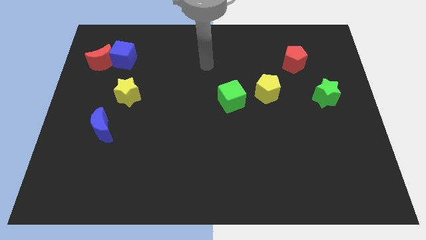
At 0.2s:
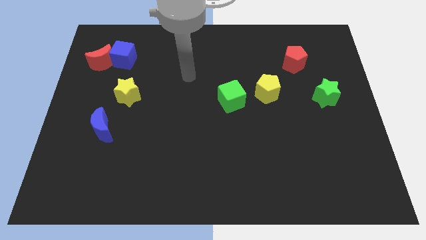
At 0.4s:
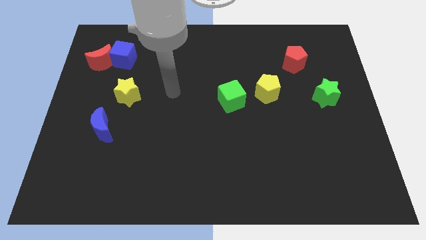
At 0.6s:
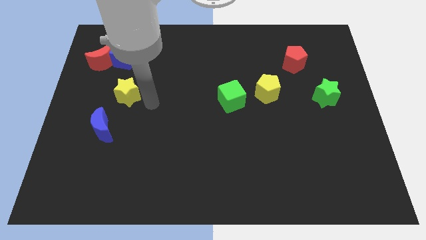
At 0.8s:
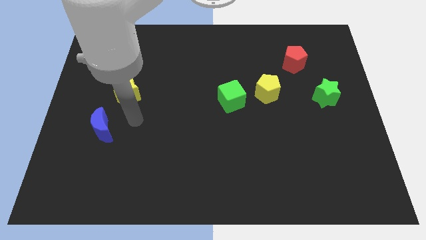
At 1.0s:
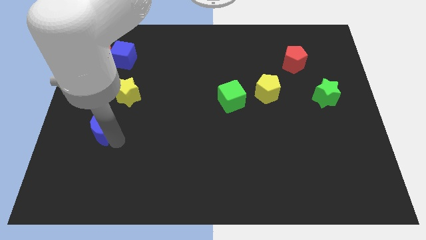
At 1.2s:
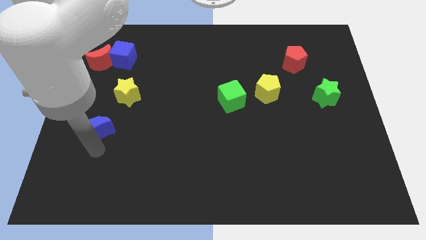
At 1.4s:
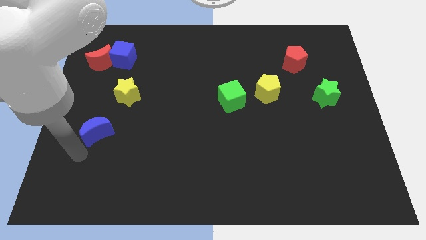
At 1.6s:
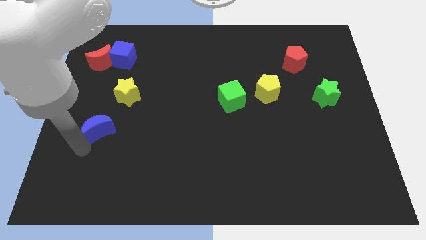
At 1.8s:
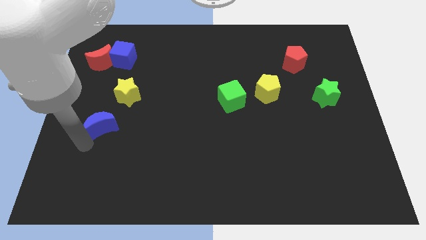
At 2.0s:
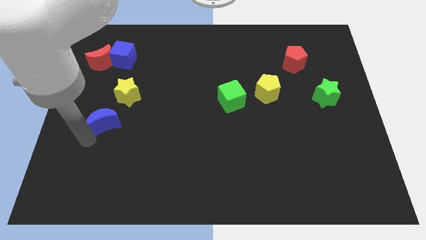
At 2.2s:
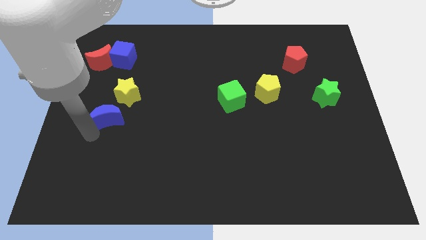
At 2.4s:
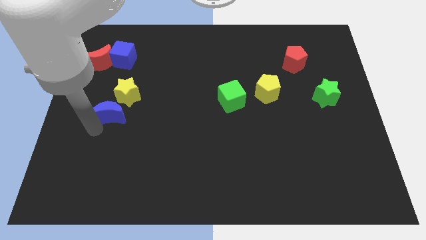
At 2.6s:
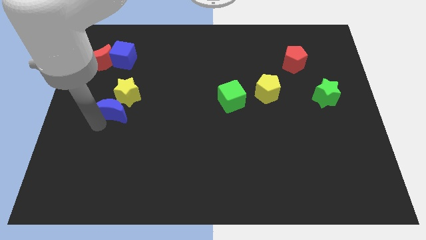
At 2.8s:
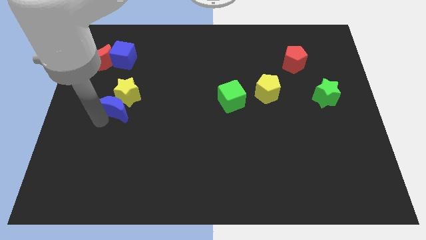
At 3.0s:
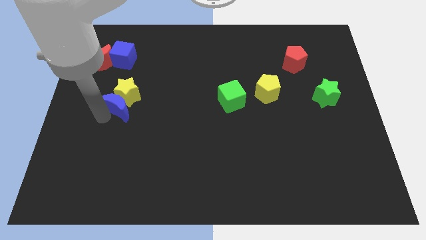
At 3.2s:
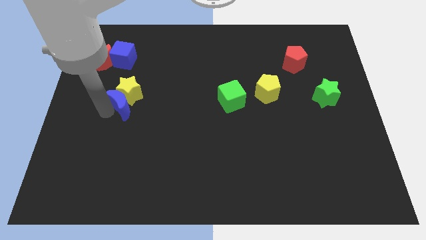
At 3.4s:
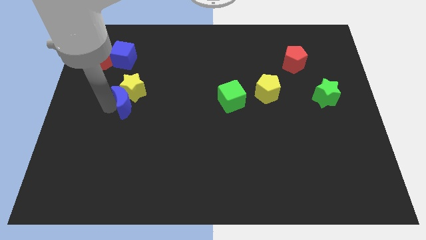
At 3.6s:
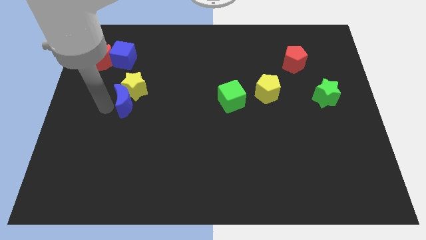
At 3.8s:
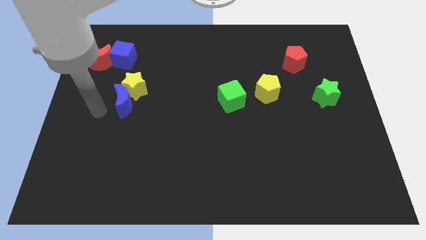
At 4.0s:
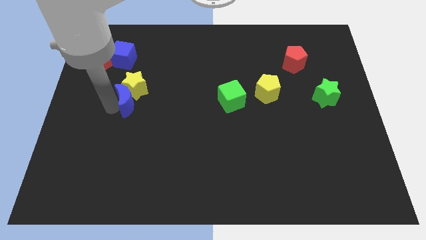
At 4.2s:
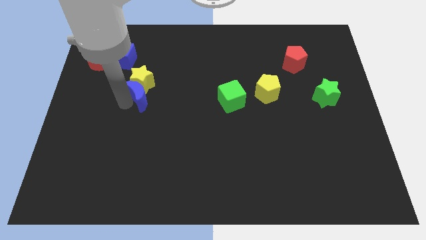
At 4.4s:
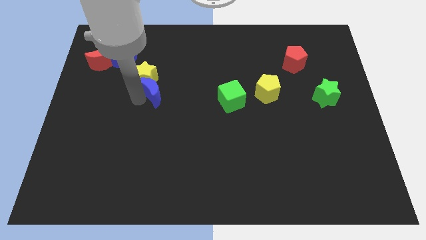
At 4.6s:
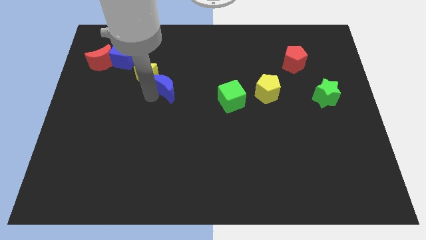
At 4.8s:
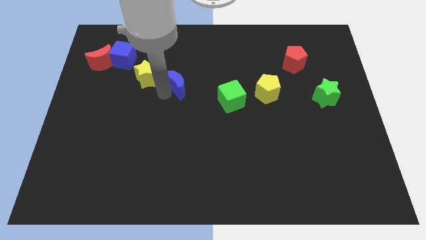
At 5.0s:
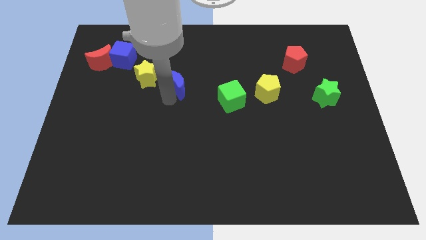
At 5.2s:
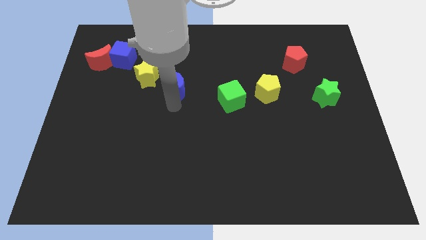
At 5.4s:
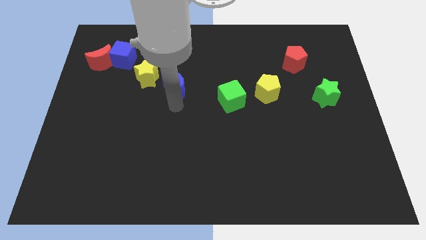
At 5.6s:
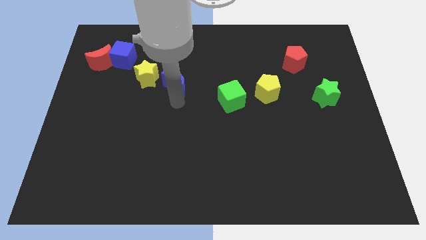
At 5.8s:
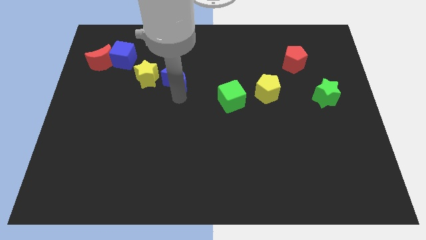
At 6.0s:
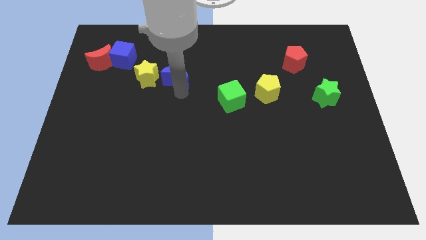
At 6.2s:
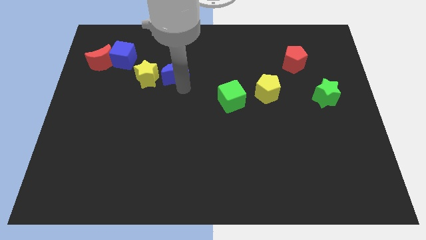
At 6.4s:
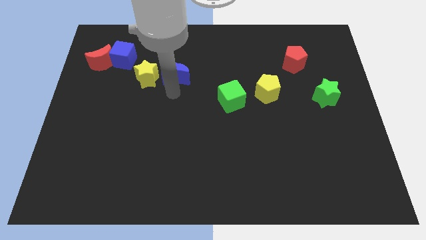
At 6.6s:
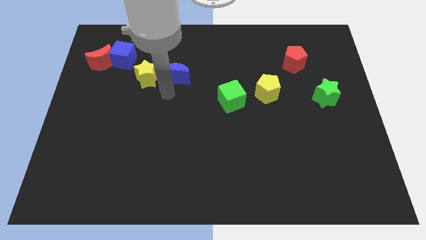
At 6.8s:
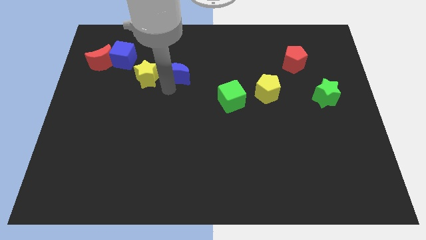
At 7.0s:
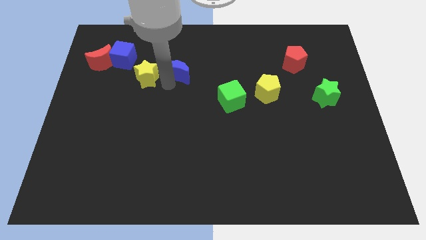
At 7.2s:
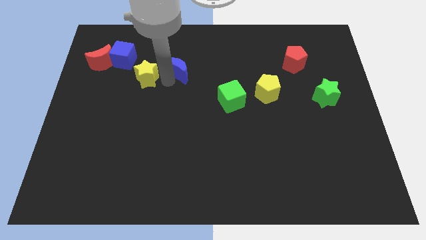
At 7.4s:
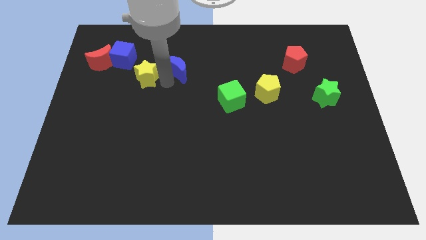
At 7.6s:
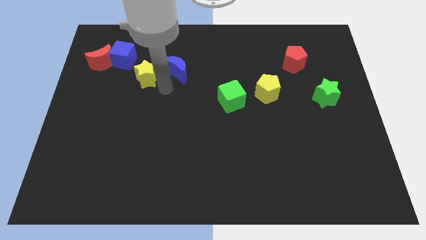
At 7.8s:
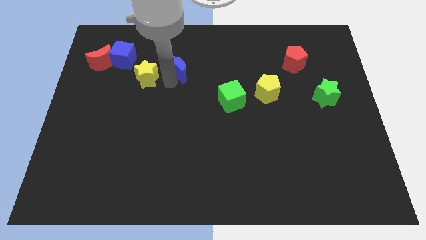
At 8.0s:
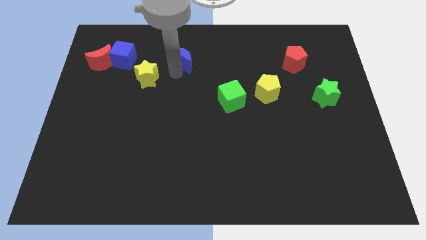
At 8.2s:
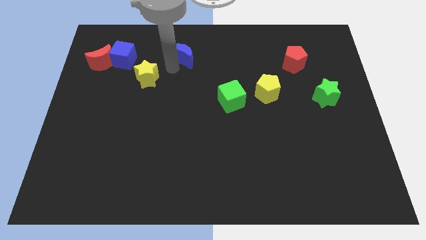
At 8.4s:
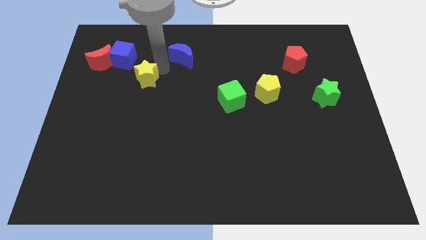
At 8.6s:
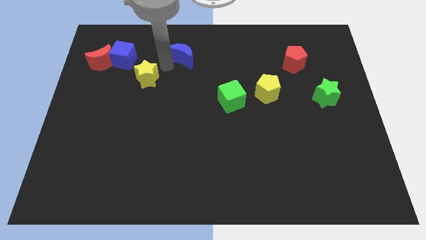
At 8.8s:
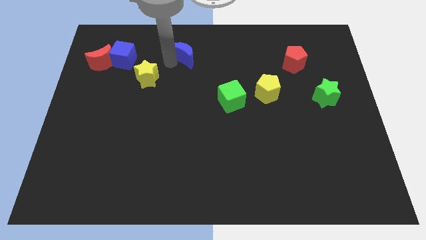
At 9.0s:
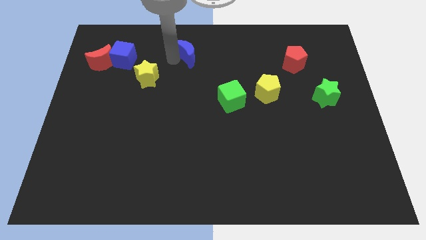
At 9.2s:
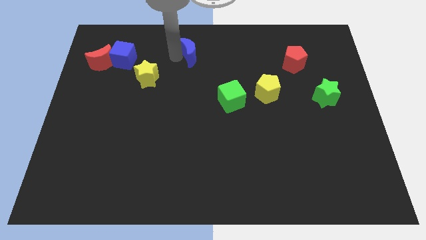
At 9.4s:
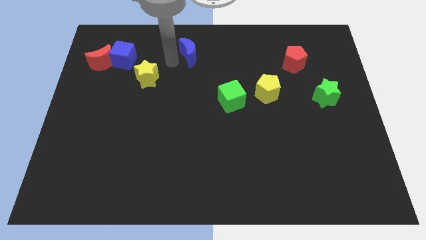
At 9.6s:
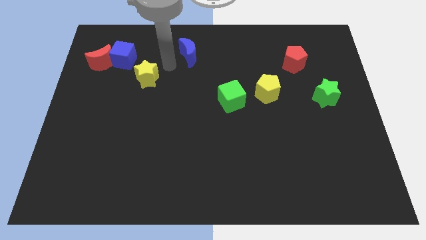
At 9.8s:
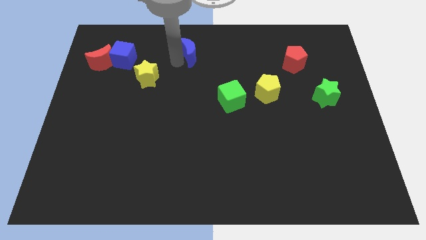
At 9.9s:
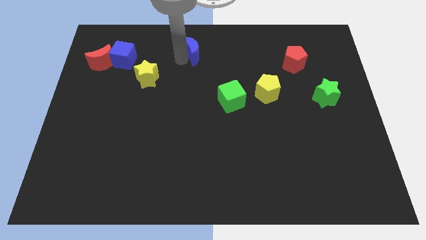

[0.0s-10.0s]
move the blue moon to the top

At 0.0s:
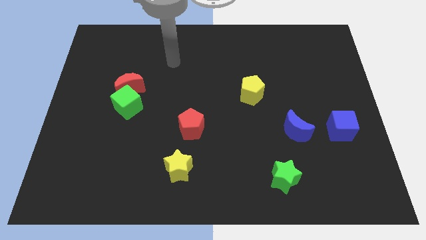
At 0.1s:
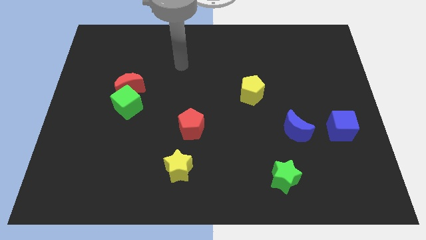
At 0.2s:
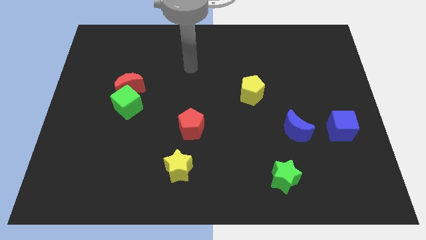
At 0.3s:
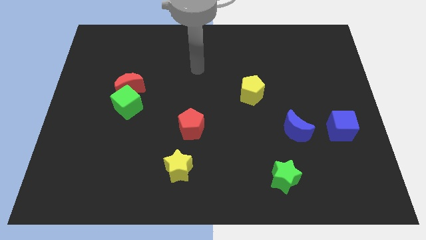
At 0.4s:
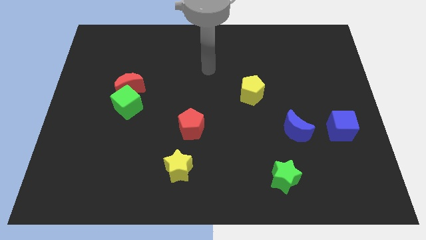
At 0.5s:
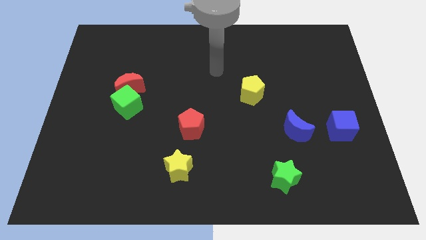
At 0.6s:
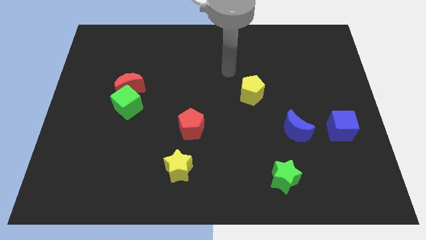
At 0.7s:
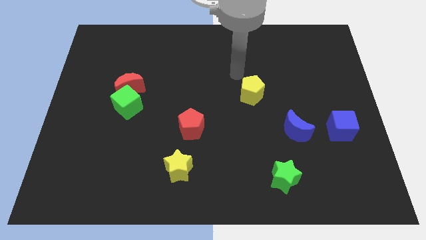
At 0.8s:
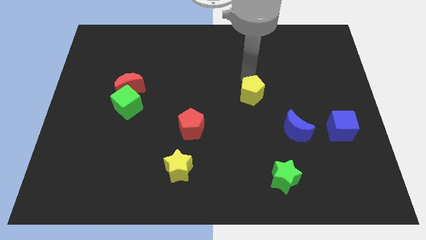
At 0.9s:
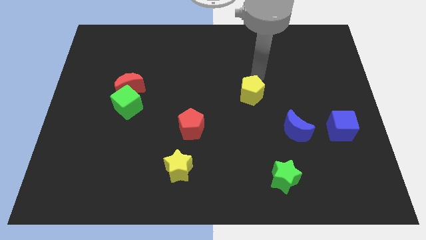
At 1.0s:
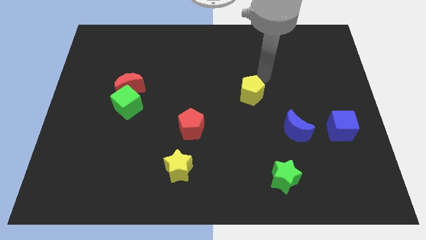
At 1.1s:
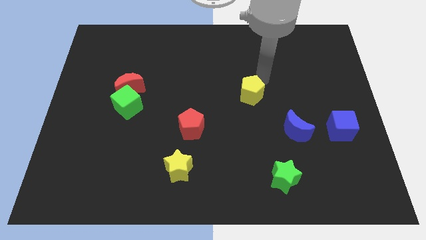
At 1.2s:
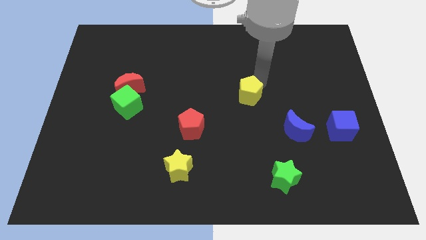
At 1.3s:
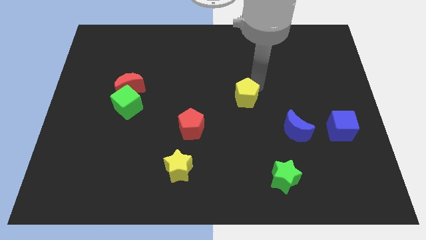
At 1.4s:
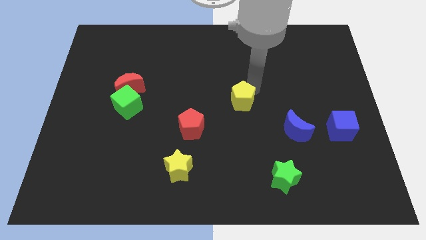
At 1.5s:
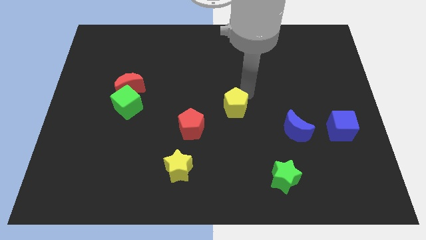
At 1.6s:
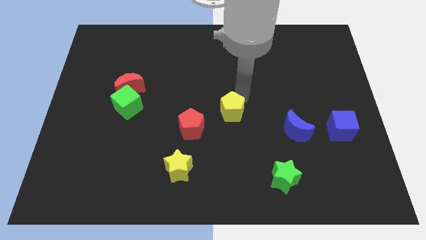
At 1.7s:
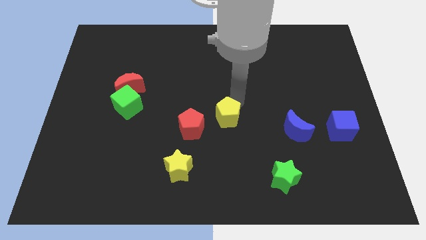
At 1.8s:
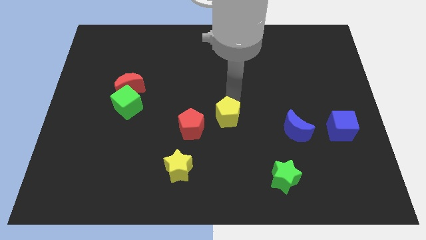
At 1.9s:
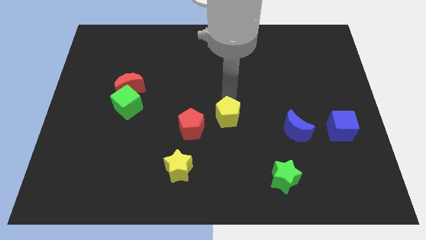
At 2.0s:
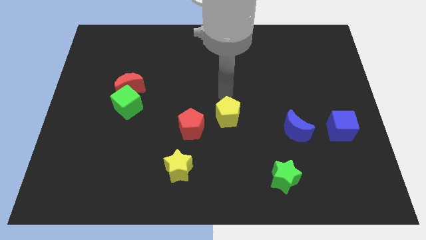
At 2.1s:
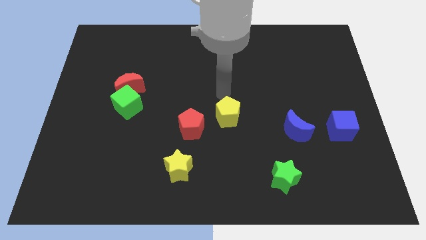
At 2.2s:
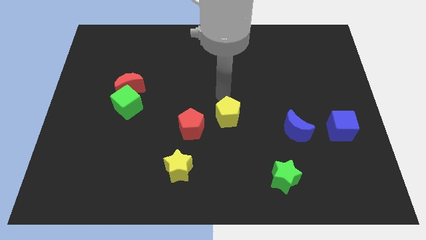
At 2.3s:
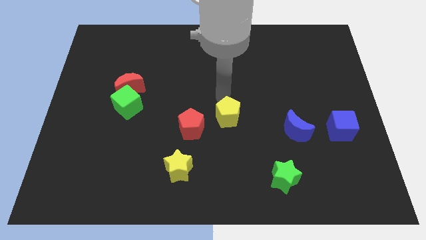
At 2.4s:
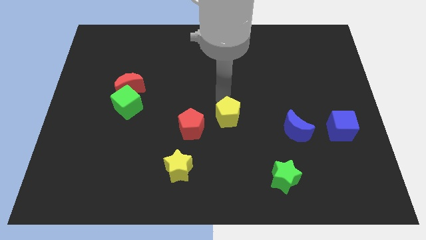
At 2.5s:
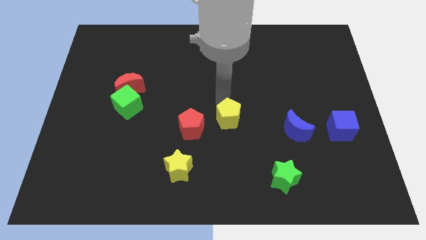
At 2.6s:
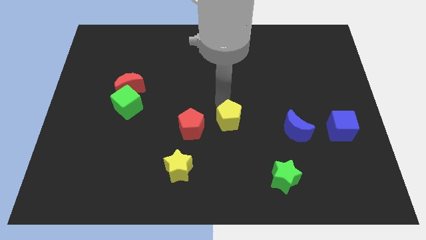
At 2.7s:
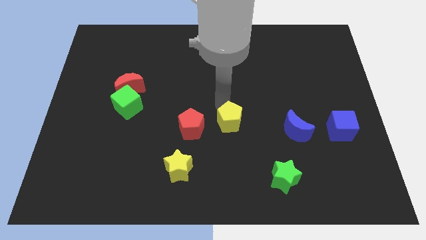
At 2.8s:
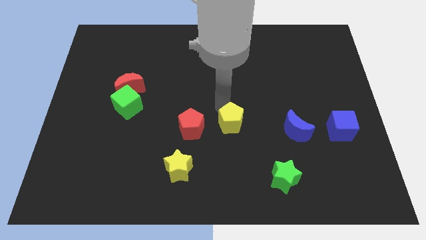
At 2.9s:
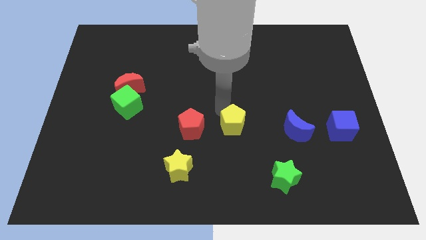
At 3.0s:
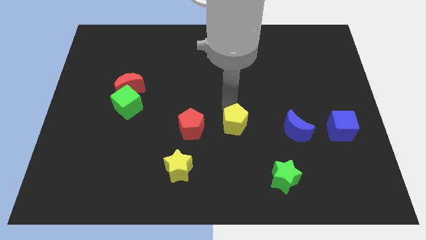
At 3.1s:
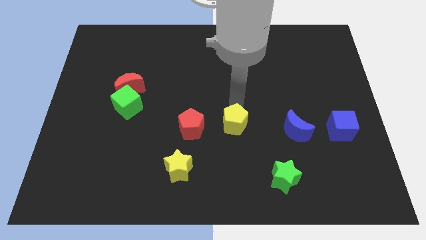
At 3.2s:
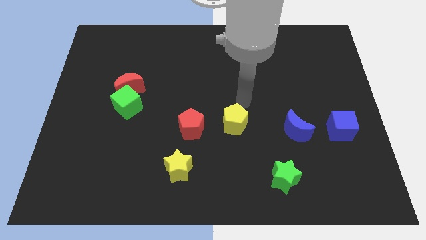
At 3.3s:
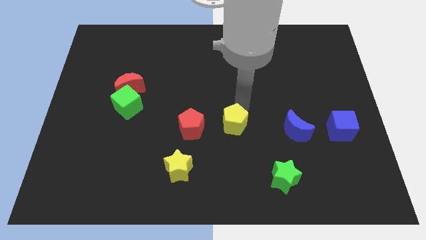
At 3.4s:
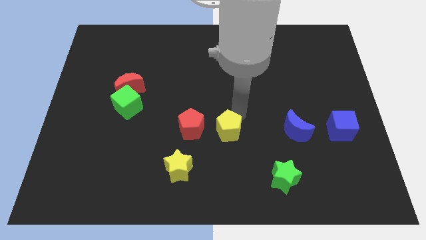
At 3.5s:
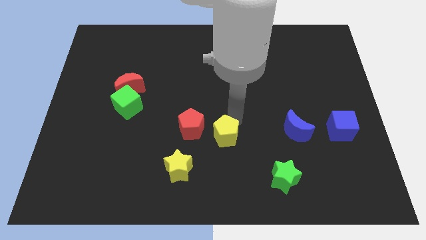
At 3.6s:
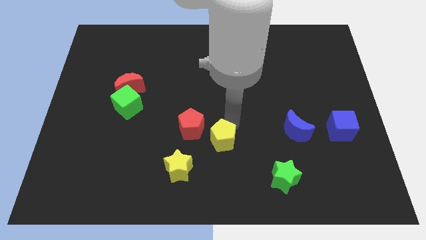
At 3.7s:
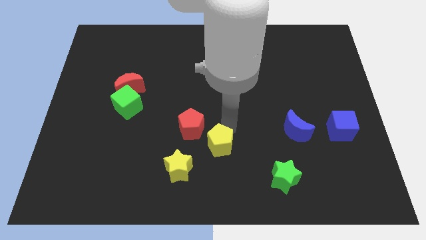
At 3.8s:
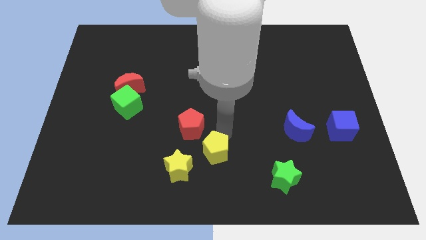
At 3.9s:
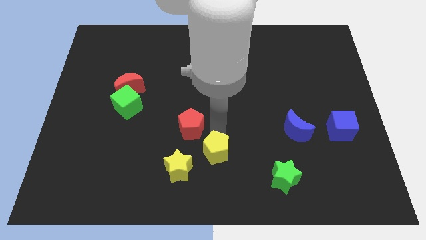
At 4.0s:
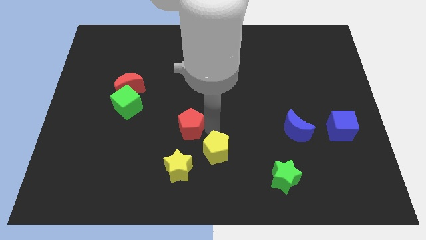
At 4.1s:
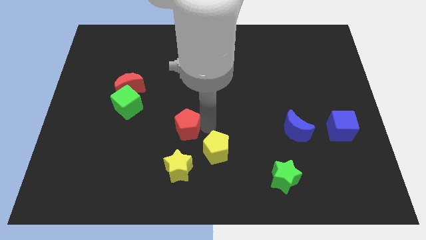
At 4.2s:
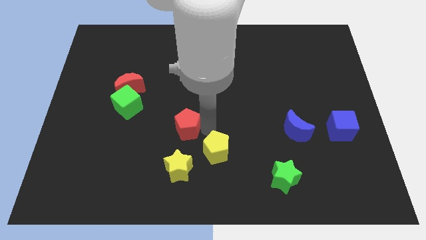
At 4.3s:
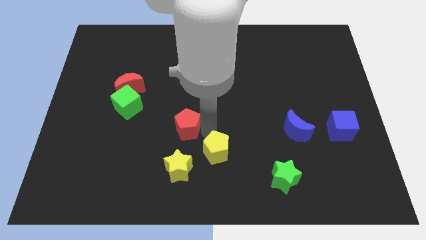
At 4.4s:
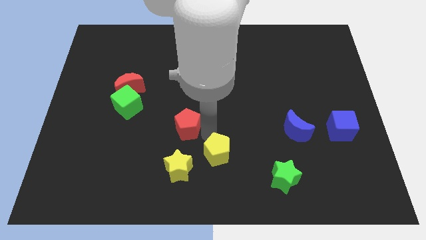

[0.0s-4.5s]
move the yellow pentagon to the bottom
